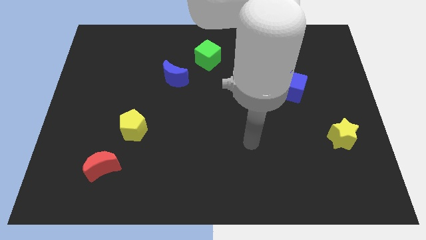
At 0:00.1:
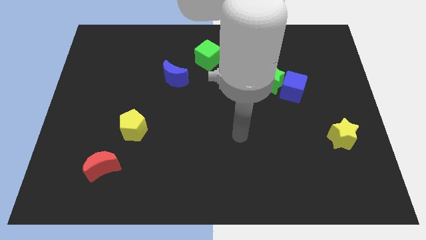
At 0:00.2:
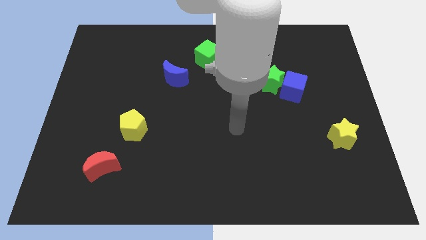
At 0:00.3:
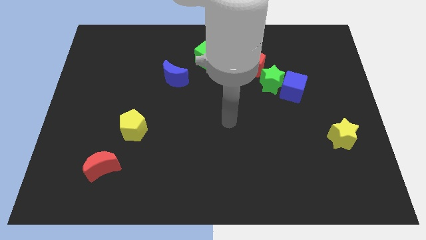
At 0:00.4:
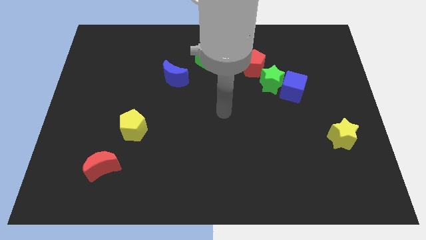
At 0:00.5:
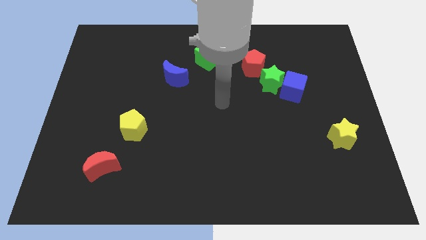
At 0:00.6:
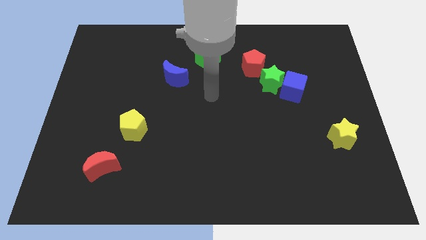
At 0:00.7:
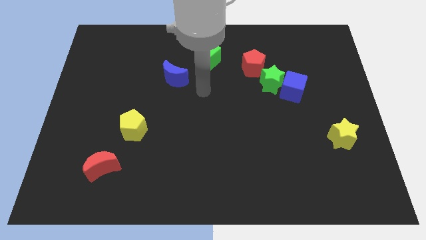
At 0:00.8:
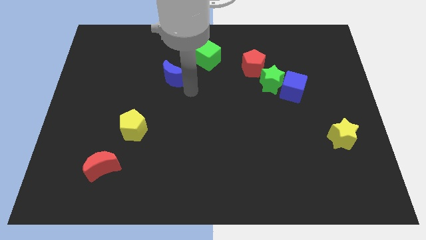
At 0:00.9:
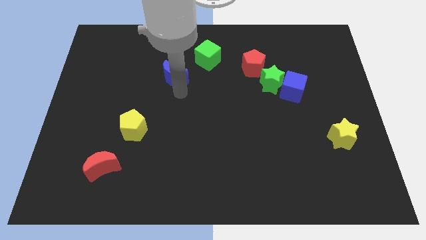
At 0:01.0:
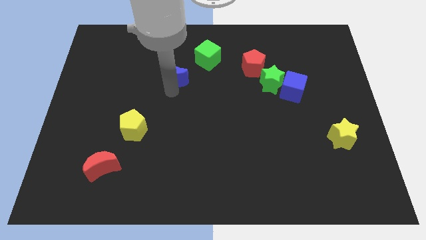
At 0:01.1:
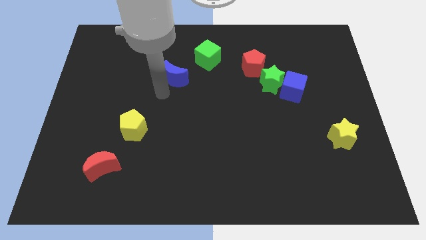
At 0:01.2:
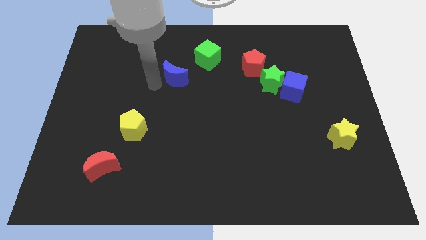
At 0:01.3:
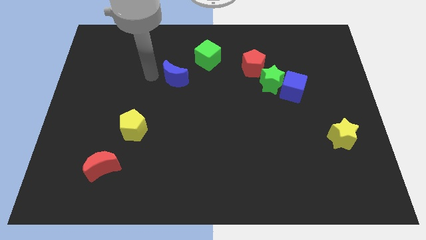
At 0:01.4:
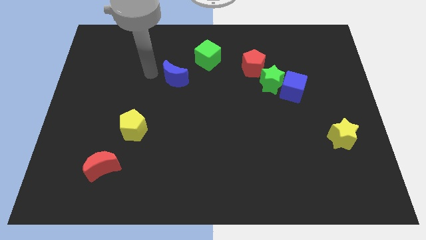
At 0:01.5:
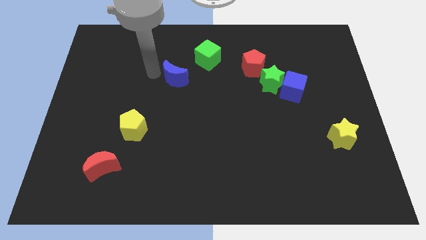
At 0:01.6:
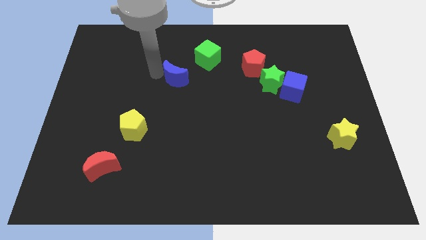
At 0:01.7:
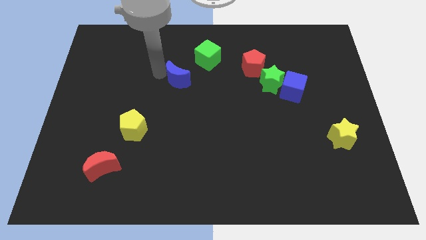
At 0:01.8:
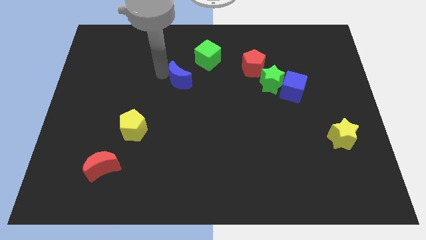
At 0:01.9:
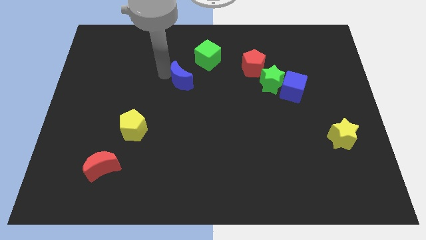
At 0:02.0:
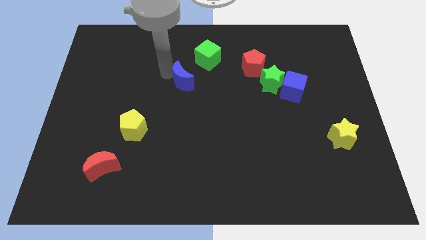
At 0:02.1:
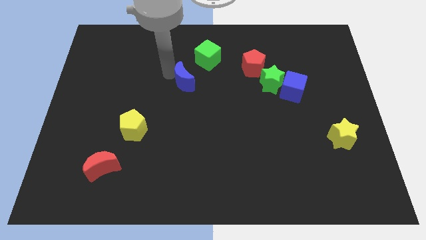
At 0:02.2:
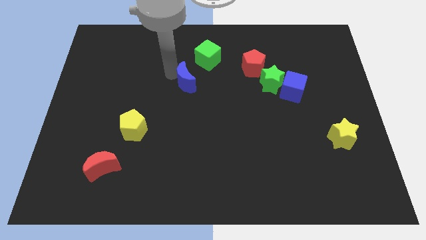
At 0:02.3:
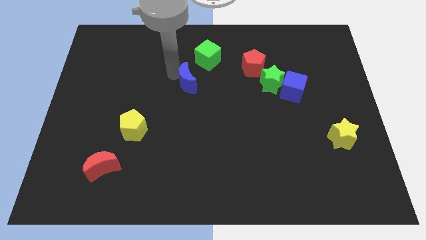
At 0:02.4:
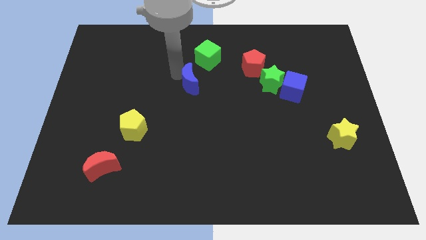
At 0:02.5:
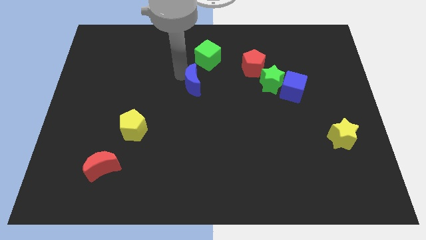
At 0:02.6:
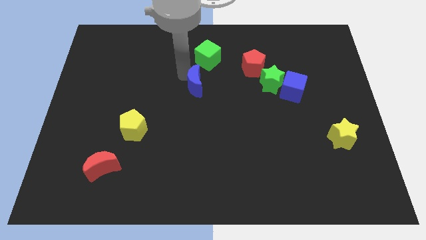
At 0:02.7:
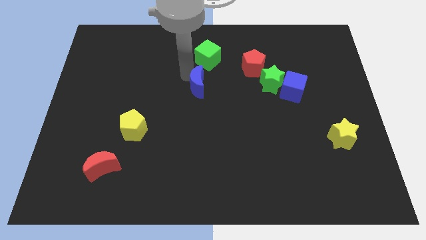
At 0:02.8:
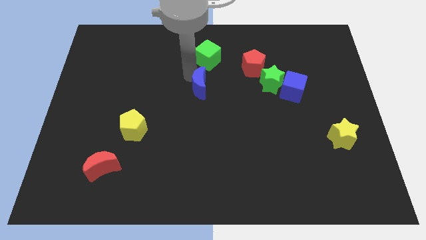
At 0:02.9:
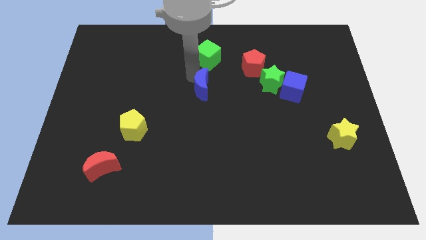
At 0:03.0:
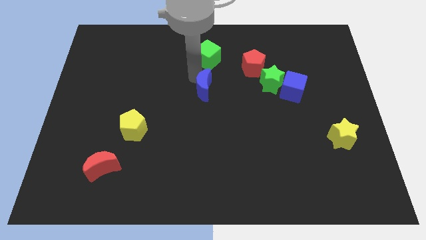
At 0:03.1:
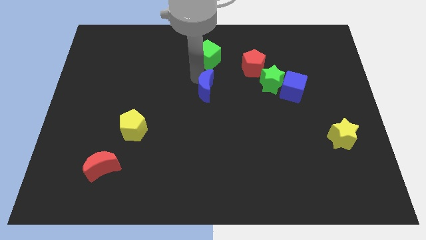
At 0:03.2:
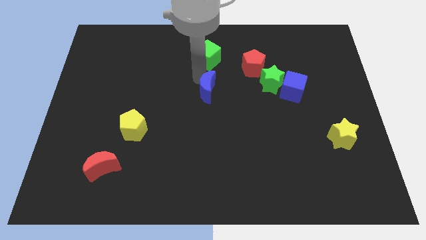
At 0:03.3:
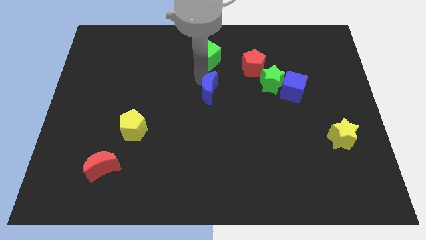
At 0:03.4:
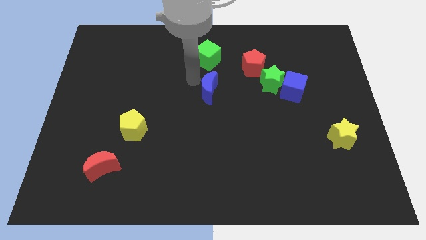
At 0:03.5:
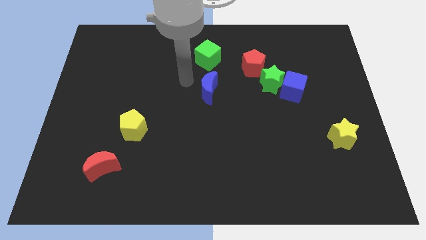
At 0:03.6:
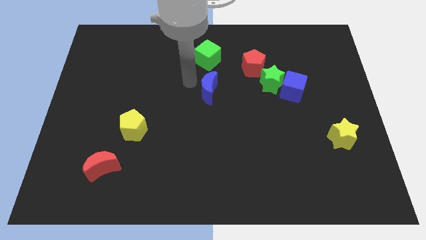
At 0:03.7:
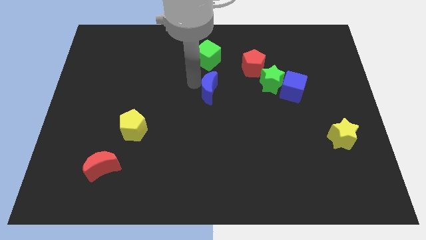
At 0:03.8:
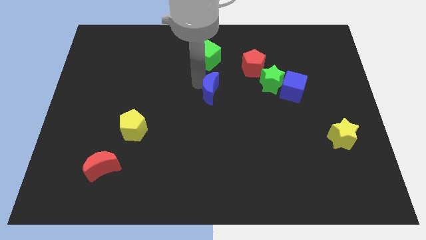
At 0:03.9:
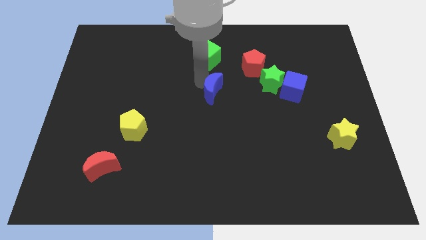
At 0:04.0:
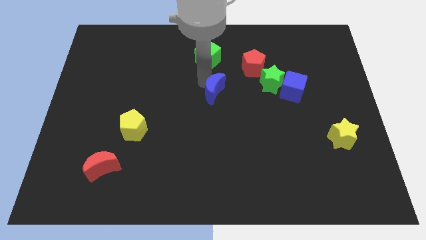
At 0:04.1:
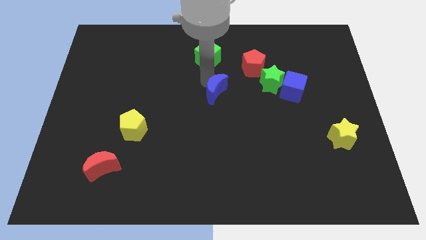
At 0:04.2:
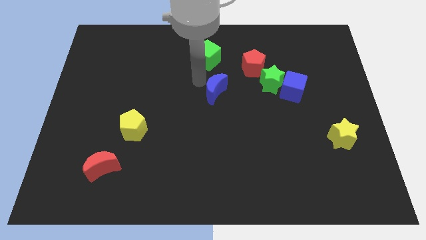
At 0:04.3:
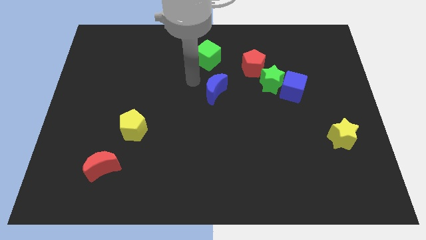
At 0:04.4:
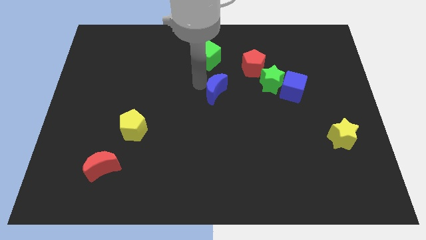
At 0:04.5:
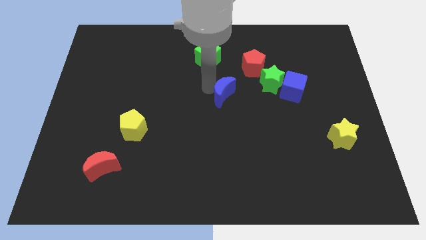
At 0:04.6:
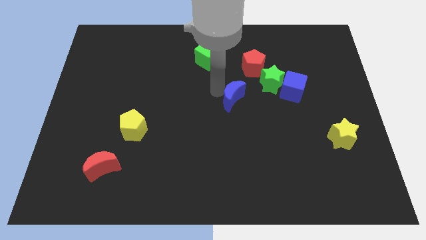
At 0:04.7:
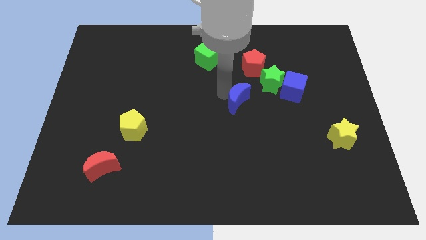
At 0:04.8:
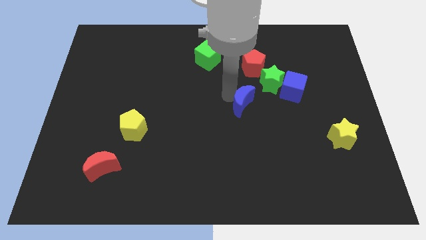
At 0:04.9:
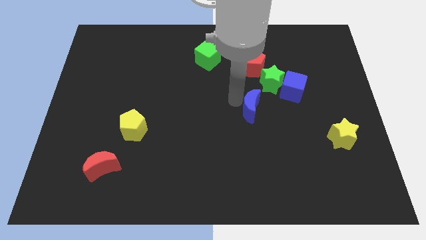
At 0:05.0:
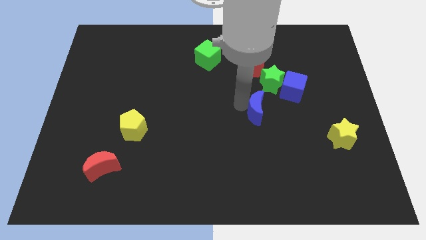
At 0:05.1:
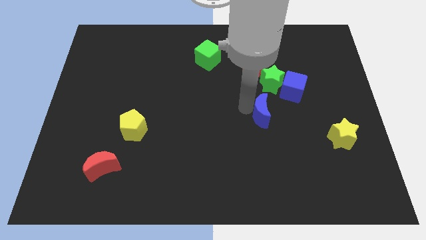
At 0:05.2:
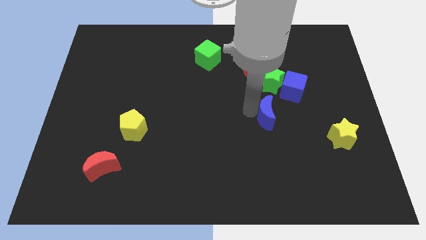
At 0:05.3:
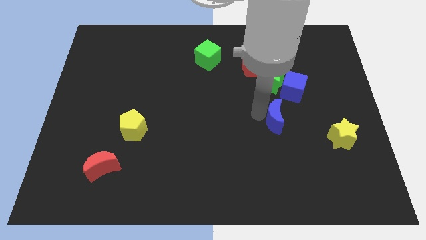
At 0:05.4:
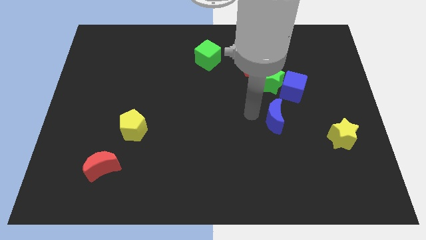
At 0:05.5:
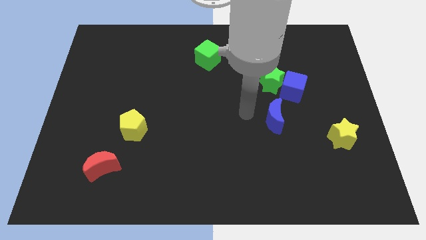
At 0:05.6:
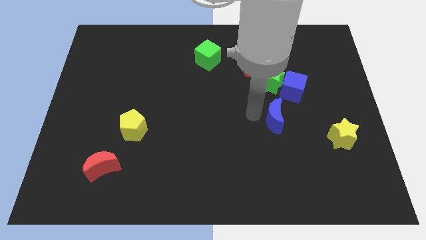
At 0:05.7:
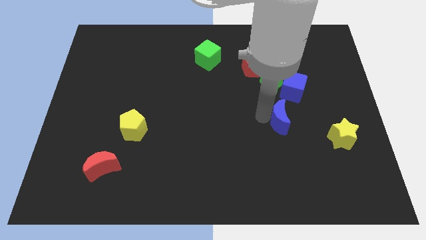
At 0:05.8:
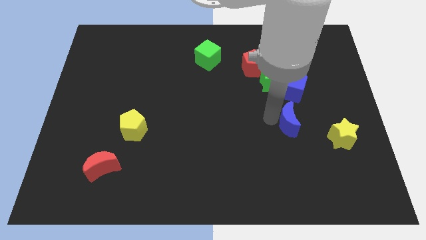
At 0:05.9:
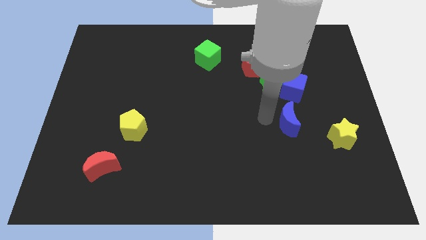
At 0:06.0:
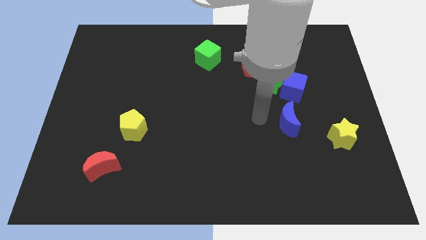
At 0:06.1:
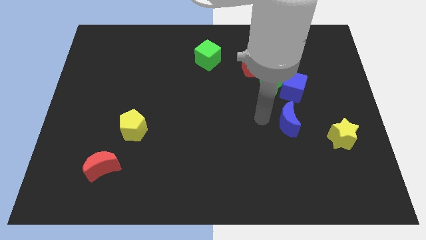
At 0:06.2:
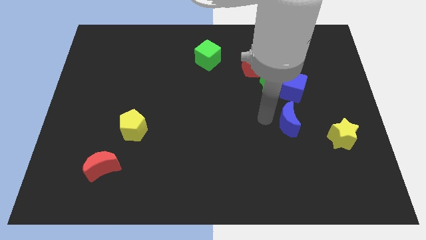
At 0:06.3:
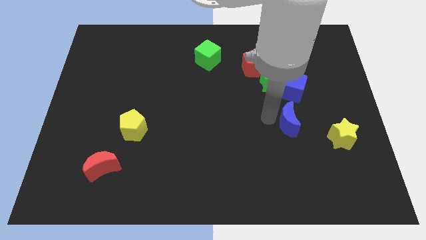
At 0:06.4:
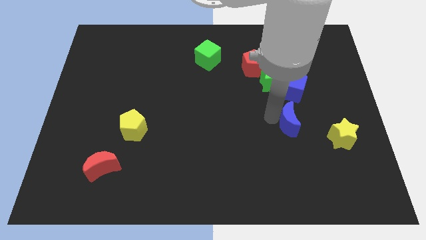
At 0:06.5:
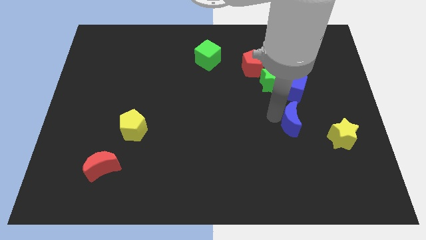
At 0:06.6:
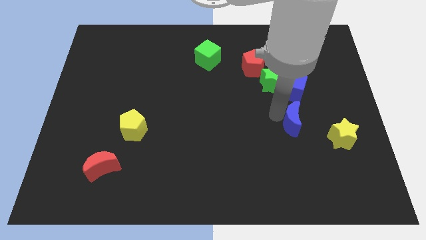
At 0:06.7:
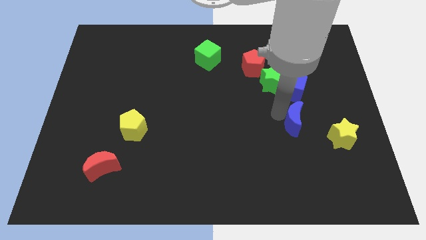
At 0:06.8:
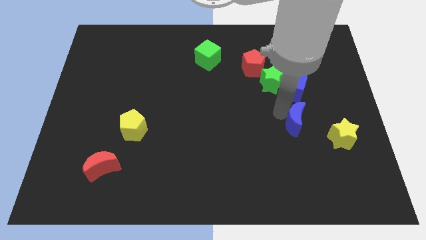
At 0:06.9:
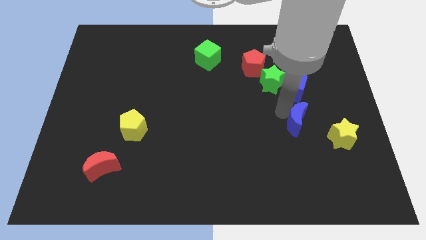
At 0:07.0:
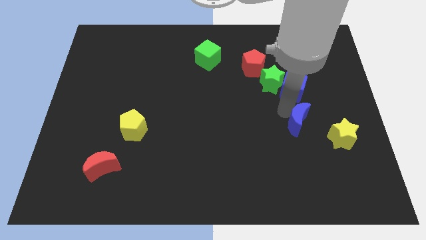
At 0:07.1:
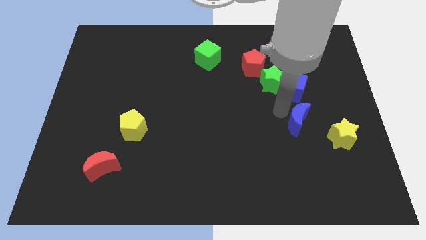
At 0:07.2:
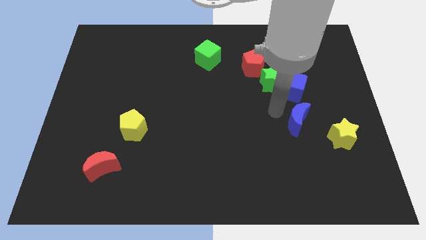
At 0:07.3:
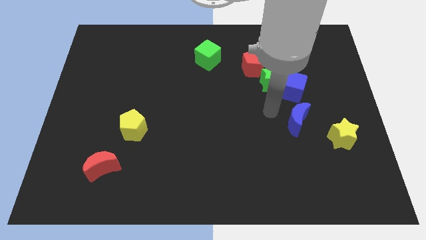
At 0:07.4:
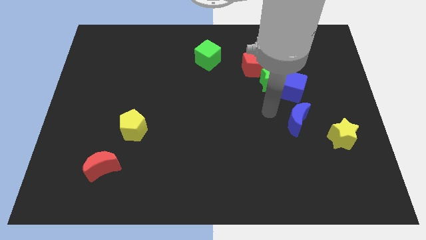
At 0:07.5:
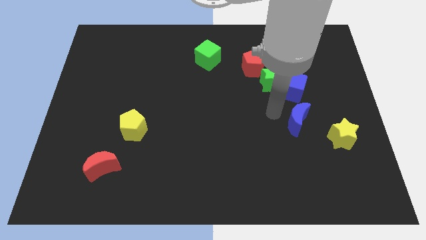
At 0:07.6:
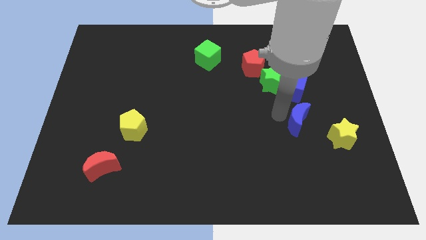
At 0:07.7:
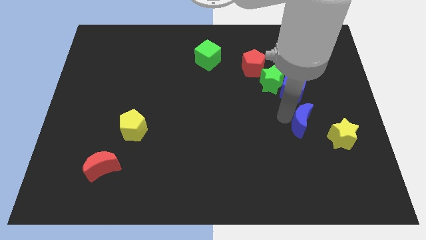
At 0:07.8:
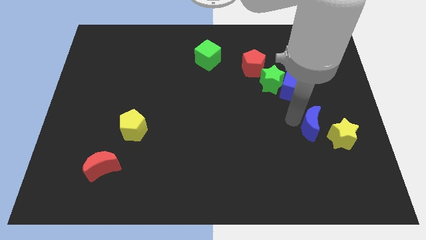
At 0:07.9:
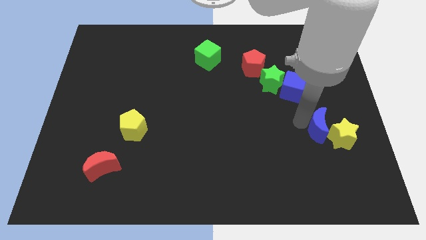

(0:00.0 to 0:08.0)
push the blue moon next to the yellow star

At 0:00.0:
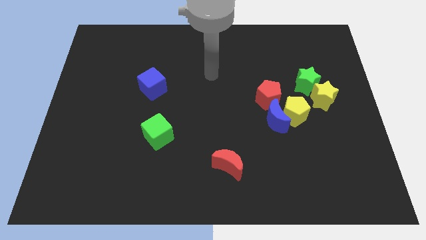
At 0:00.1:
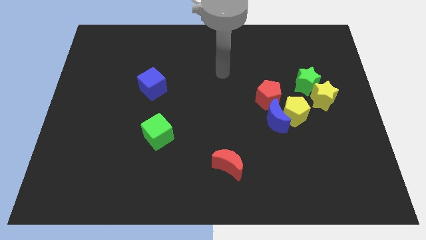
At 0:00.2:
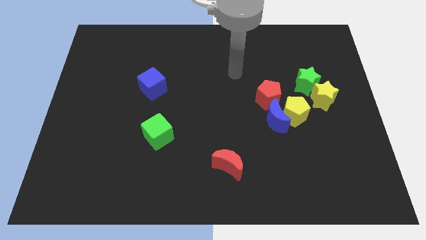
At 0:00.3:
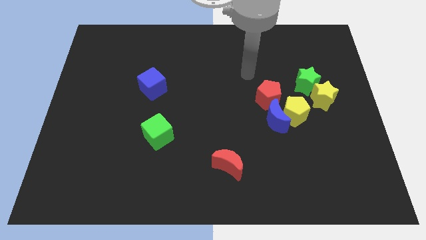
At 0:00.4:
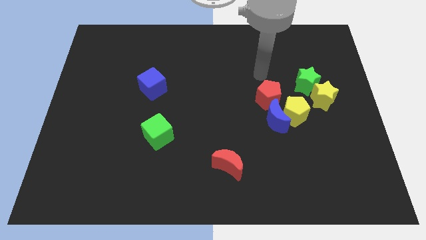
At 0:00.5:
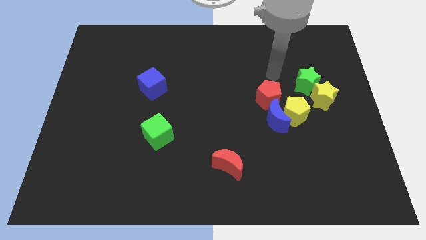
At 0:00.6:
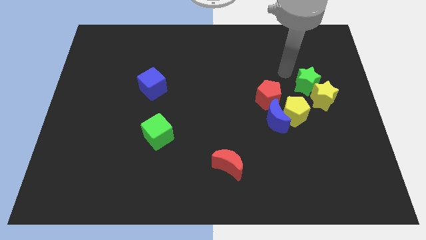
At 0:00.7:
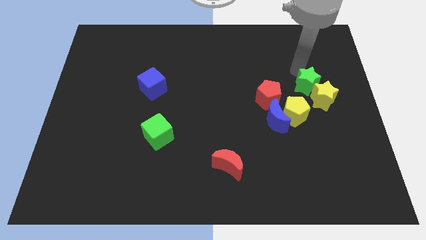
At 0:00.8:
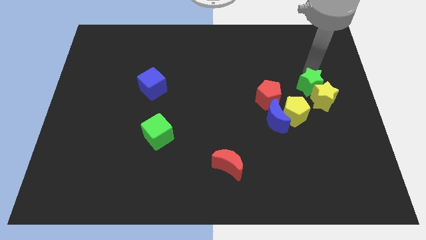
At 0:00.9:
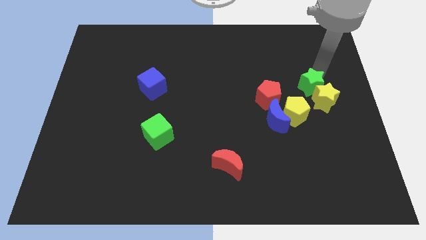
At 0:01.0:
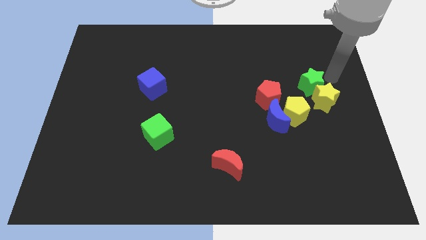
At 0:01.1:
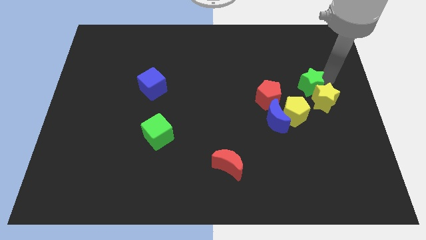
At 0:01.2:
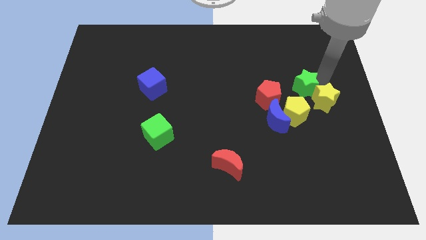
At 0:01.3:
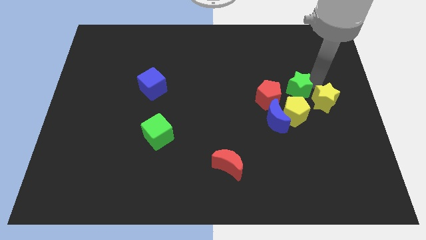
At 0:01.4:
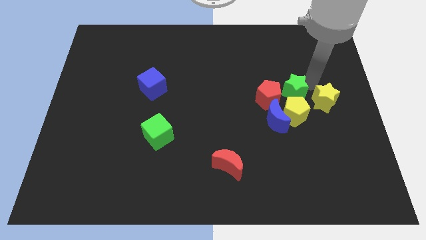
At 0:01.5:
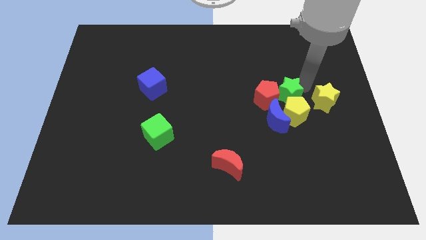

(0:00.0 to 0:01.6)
push the green star close to the red pentagon
